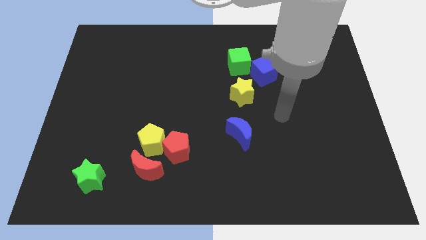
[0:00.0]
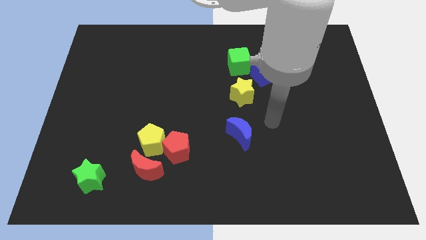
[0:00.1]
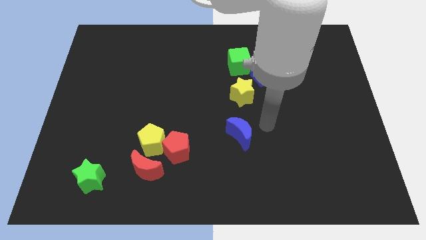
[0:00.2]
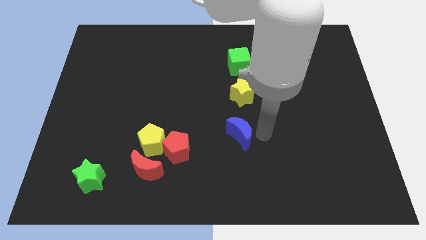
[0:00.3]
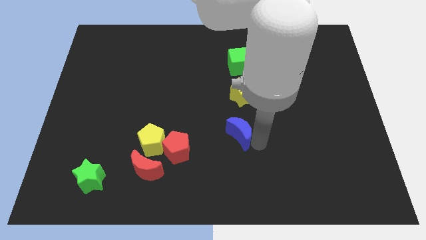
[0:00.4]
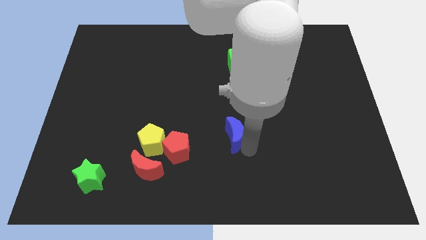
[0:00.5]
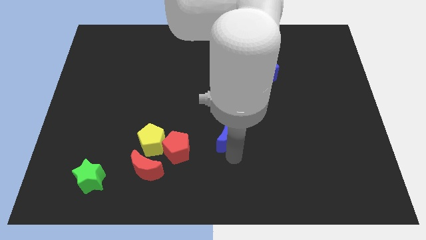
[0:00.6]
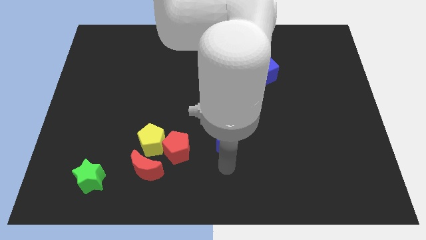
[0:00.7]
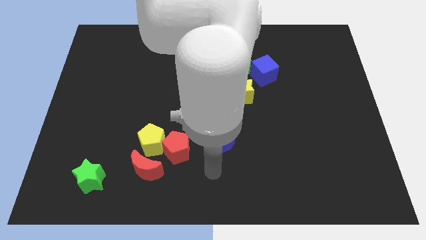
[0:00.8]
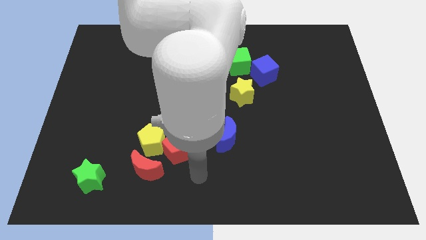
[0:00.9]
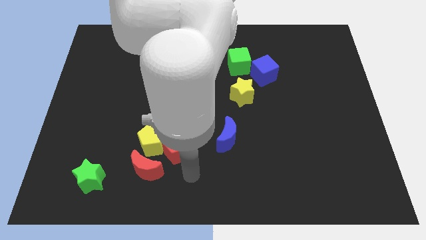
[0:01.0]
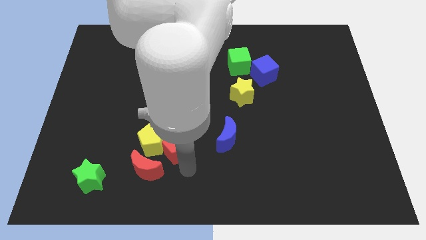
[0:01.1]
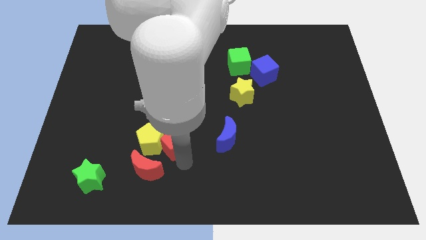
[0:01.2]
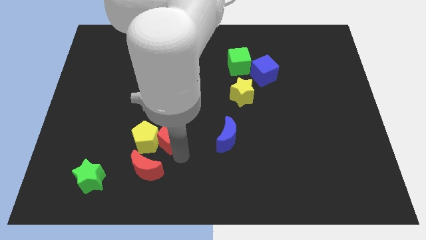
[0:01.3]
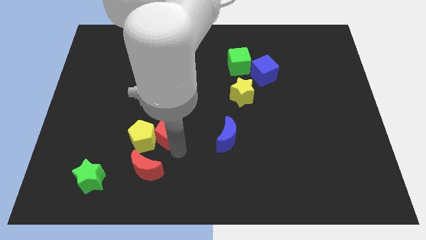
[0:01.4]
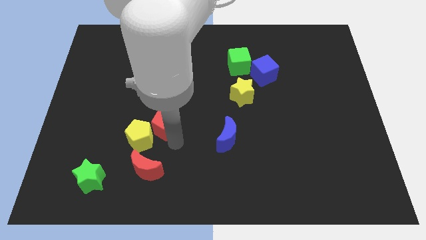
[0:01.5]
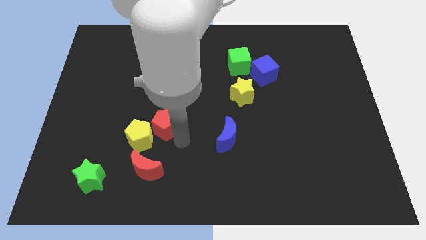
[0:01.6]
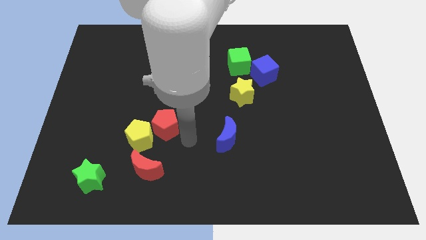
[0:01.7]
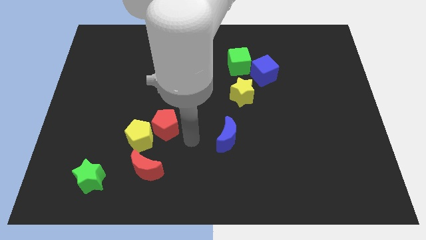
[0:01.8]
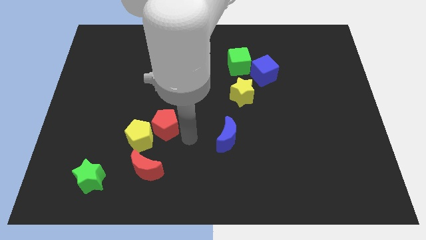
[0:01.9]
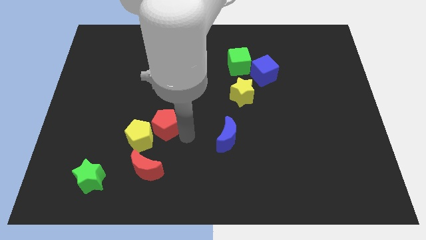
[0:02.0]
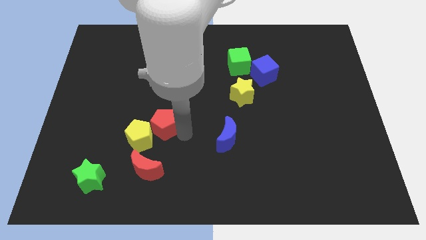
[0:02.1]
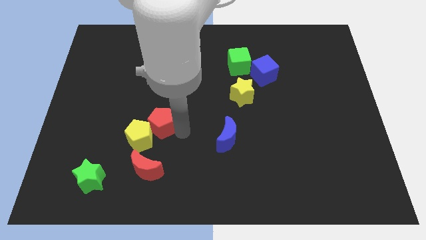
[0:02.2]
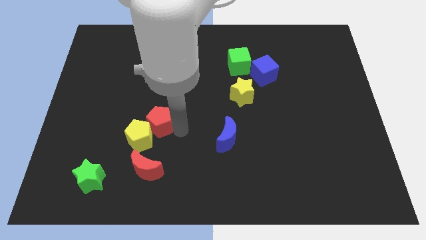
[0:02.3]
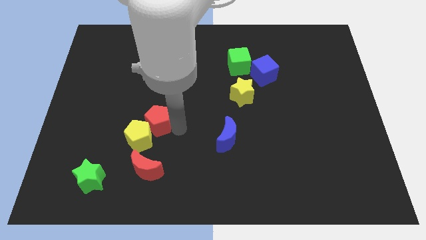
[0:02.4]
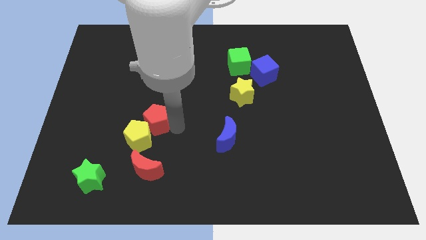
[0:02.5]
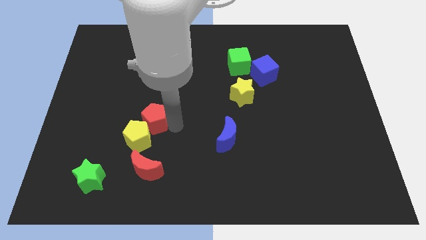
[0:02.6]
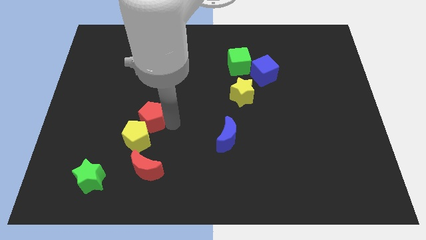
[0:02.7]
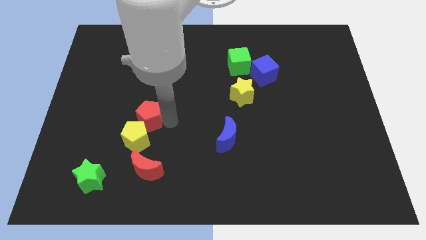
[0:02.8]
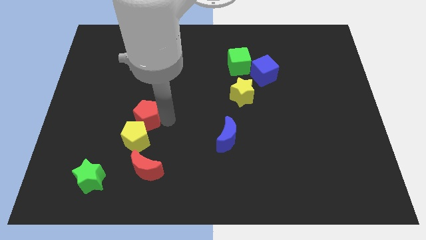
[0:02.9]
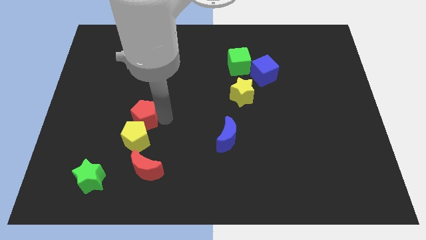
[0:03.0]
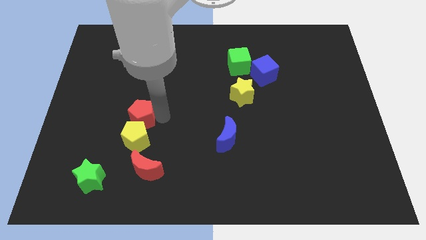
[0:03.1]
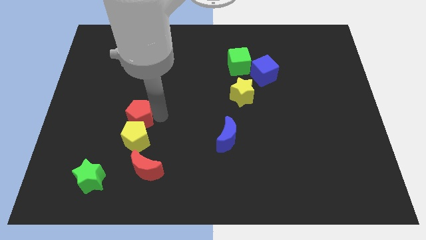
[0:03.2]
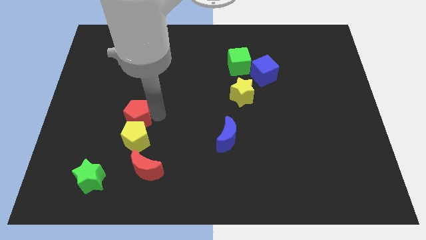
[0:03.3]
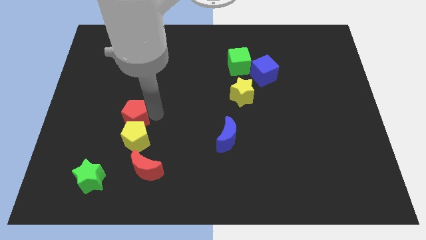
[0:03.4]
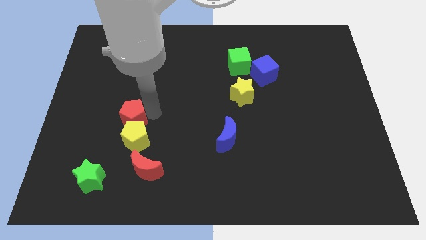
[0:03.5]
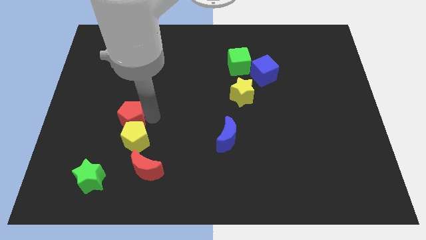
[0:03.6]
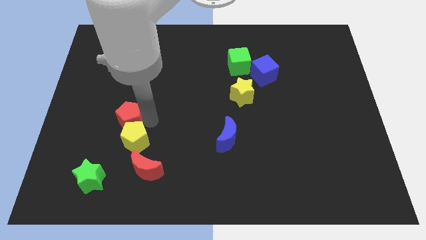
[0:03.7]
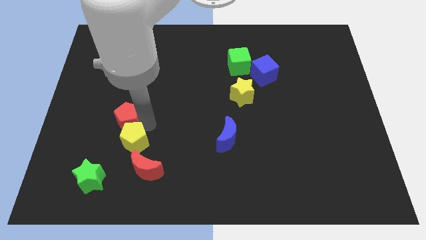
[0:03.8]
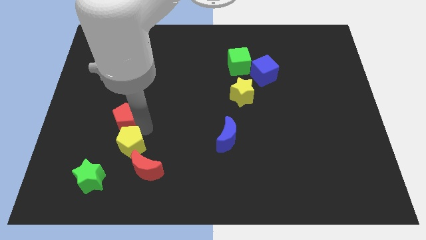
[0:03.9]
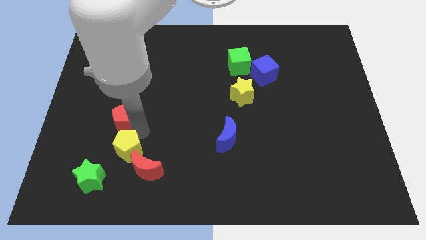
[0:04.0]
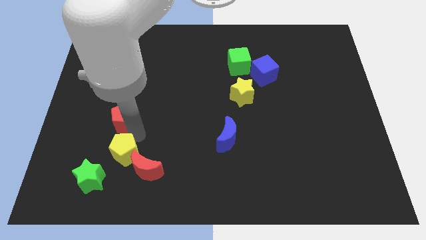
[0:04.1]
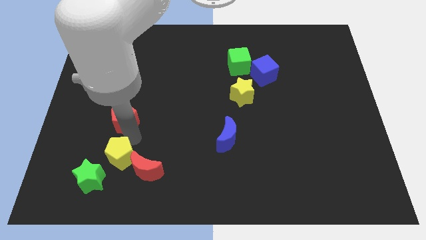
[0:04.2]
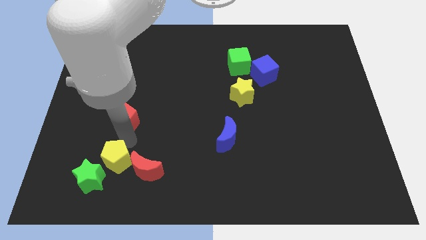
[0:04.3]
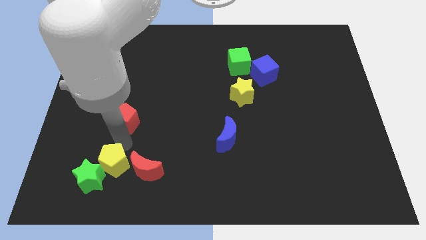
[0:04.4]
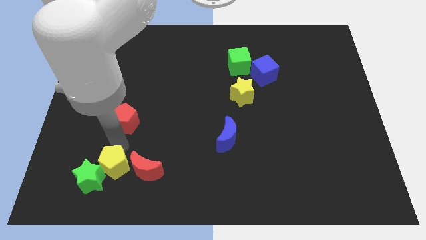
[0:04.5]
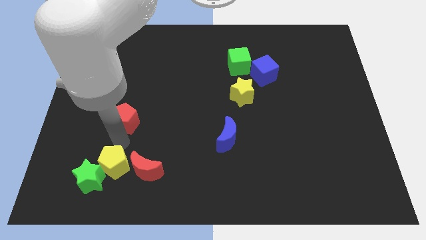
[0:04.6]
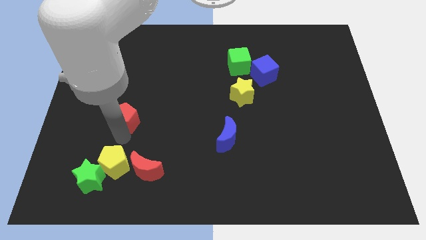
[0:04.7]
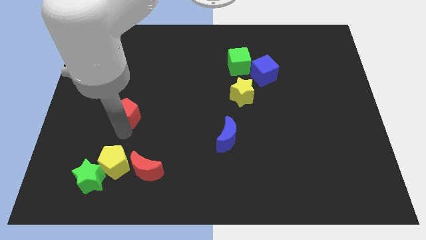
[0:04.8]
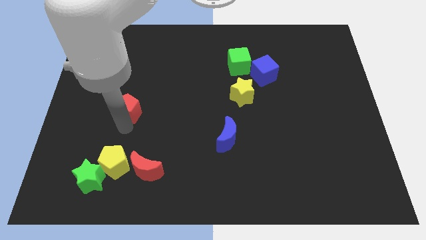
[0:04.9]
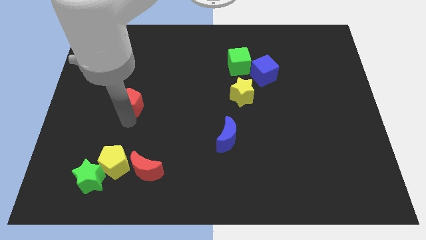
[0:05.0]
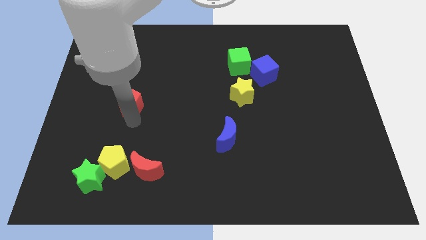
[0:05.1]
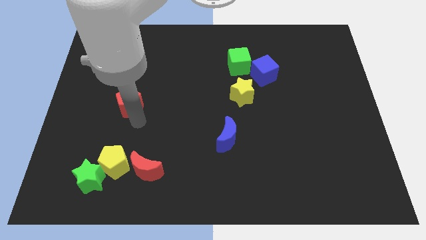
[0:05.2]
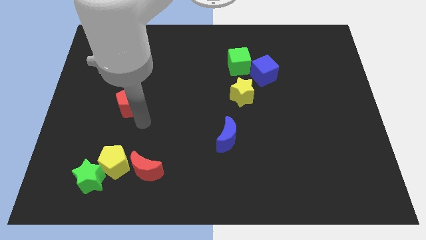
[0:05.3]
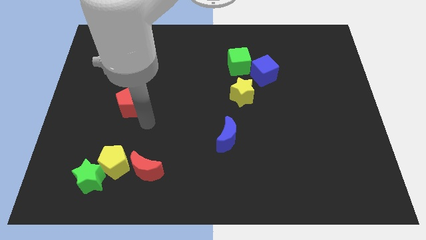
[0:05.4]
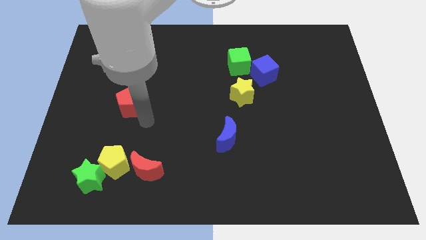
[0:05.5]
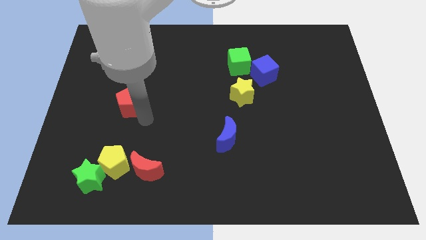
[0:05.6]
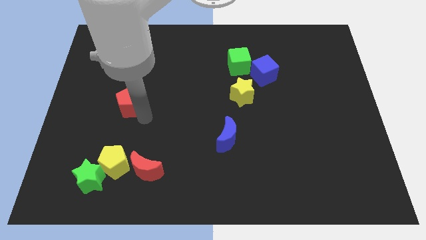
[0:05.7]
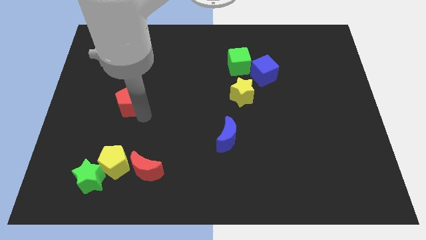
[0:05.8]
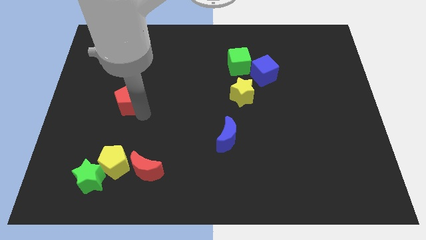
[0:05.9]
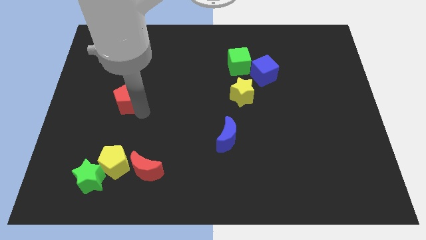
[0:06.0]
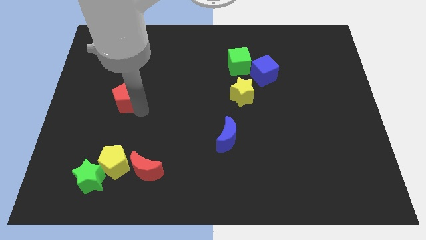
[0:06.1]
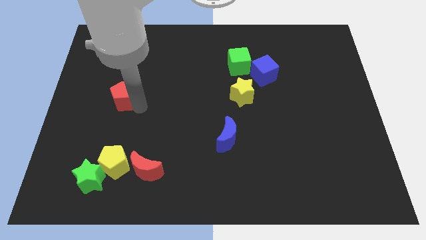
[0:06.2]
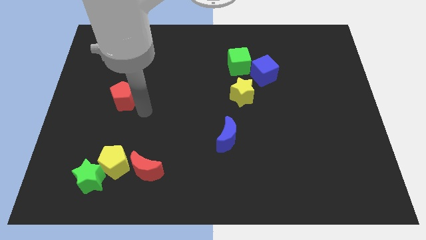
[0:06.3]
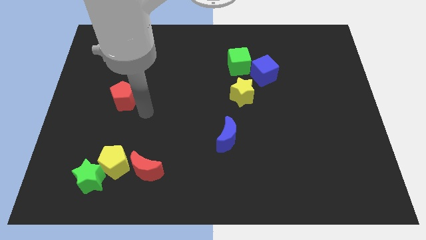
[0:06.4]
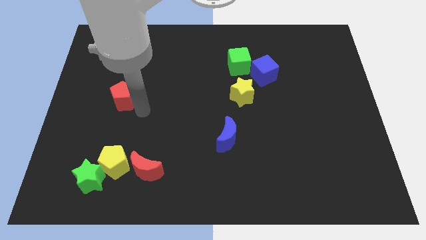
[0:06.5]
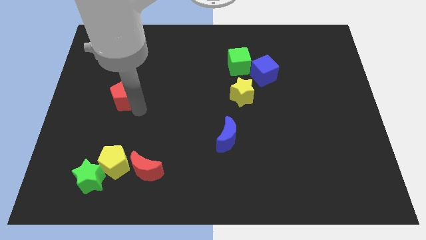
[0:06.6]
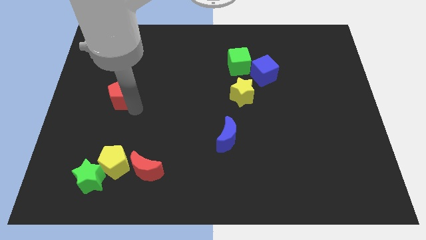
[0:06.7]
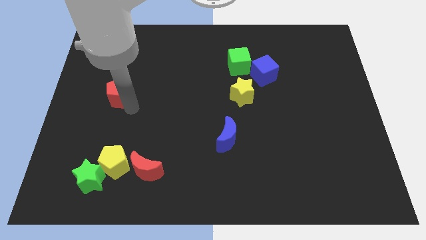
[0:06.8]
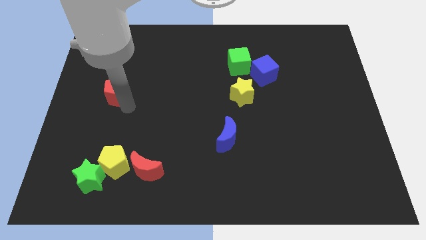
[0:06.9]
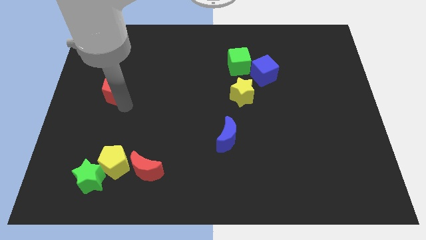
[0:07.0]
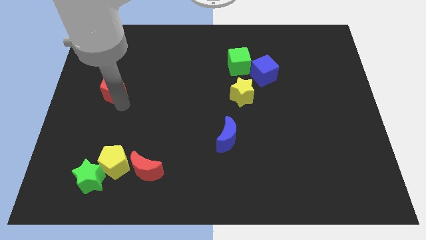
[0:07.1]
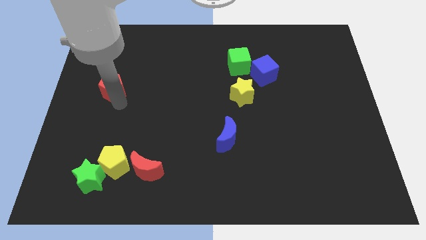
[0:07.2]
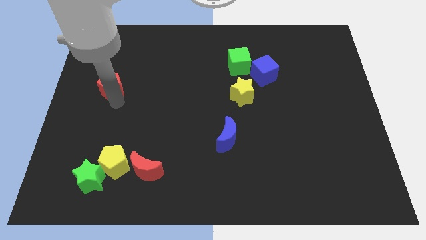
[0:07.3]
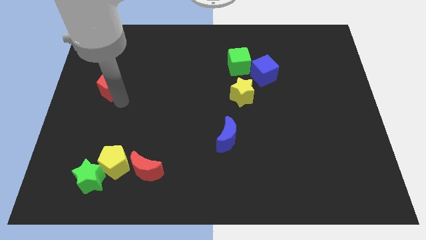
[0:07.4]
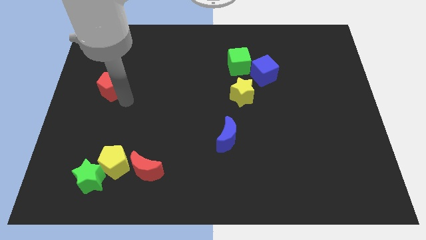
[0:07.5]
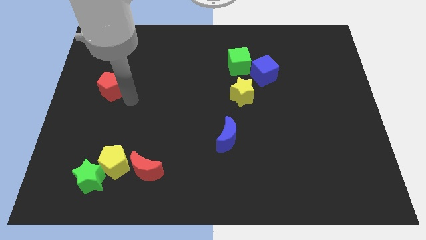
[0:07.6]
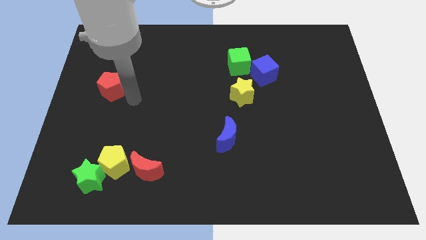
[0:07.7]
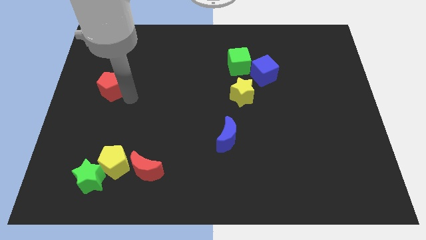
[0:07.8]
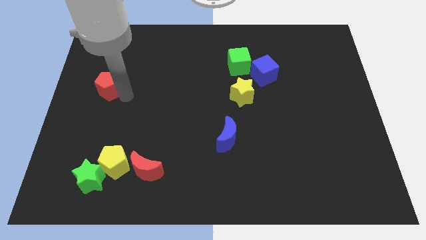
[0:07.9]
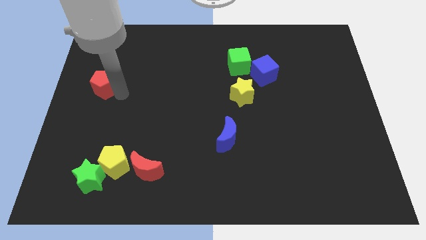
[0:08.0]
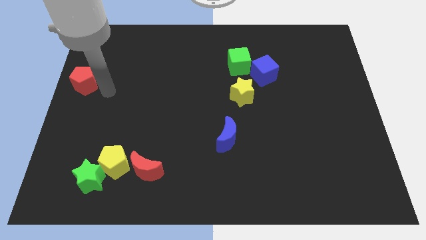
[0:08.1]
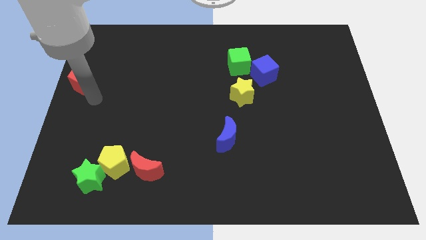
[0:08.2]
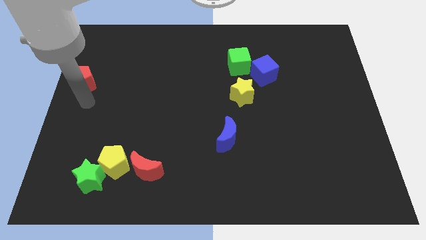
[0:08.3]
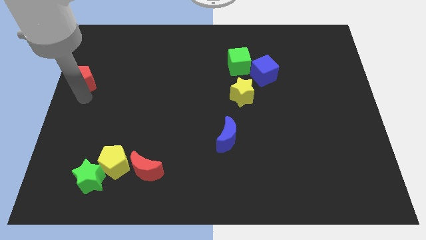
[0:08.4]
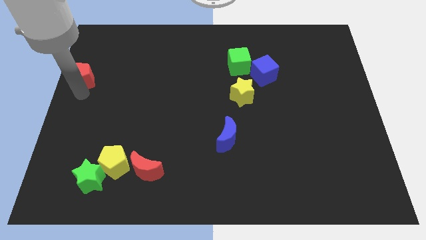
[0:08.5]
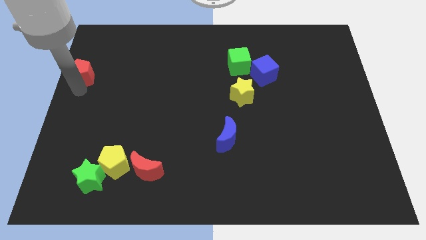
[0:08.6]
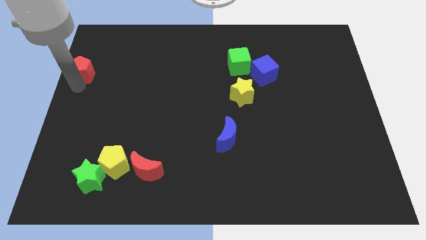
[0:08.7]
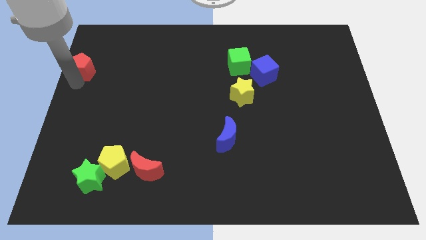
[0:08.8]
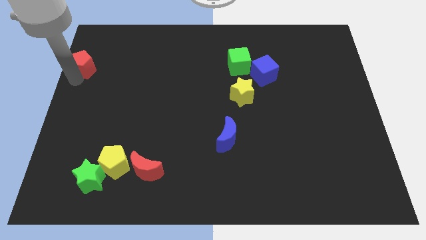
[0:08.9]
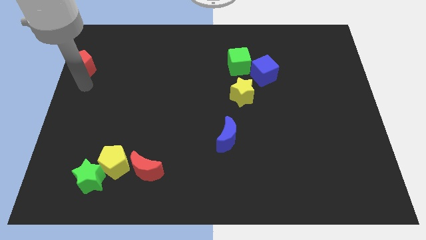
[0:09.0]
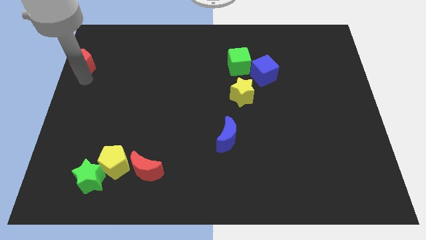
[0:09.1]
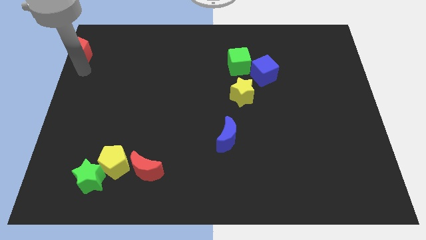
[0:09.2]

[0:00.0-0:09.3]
put the red pentagon to the top left of the board
